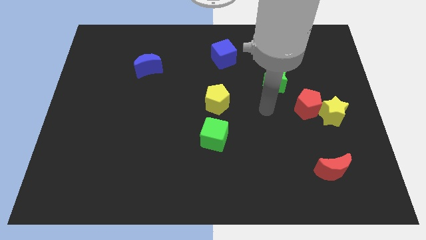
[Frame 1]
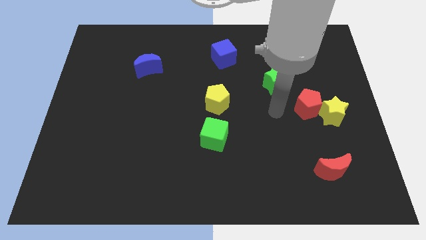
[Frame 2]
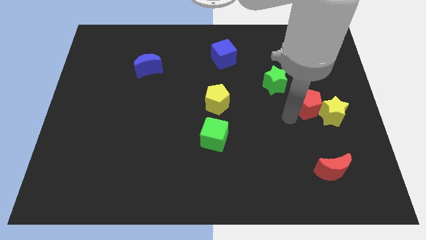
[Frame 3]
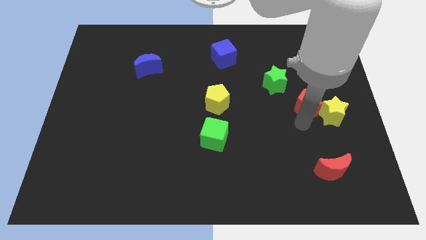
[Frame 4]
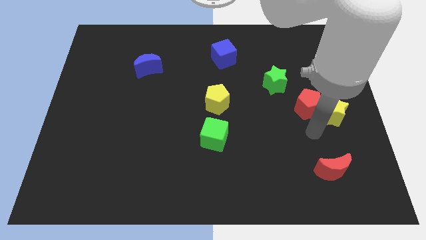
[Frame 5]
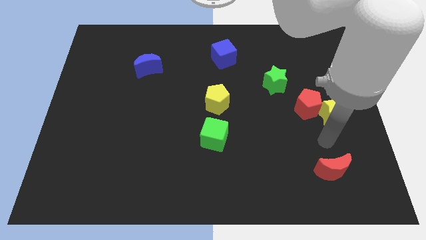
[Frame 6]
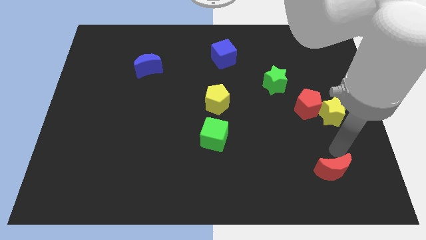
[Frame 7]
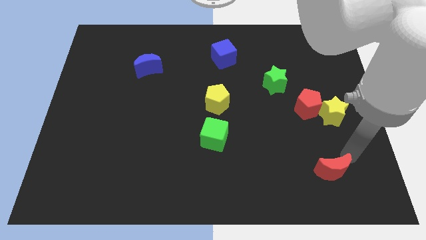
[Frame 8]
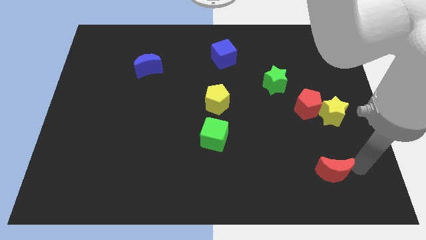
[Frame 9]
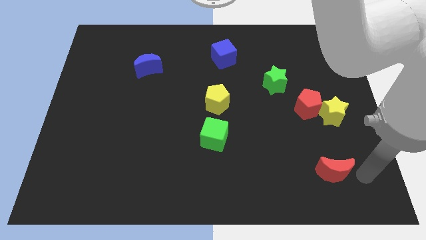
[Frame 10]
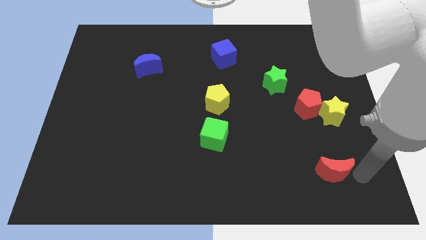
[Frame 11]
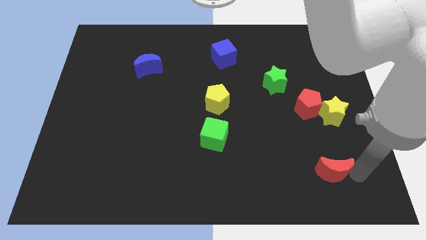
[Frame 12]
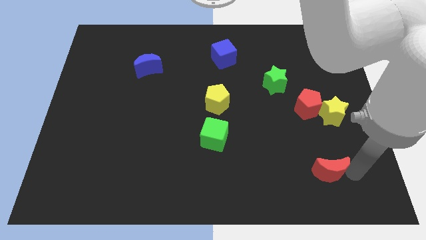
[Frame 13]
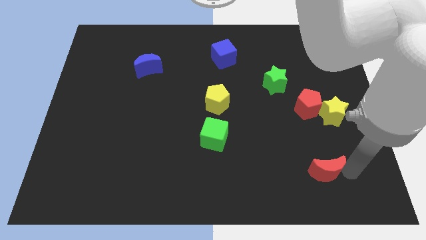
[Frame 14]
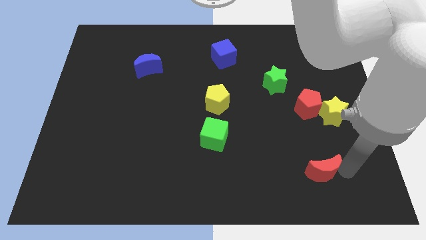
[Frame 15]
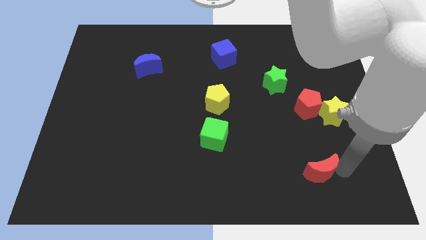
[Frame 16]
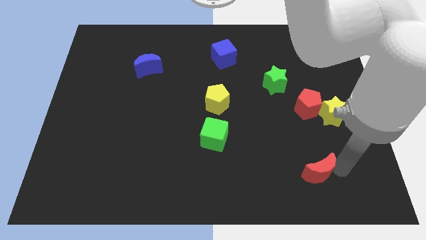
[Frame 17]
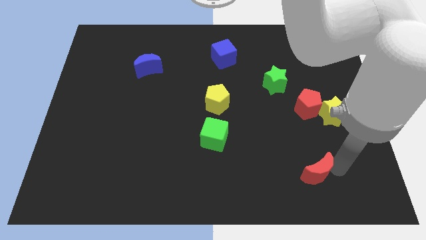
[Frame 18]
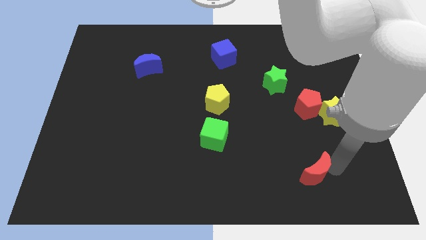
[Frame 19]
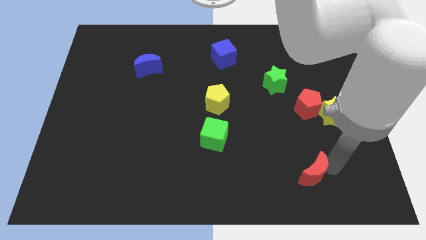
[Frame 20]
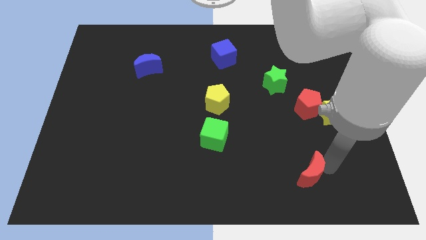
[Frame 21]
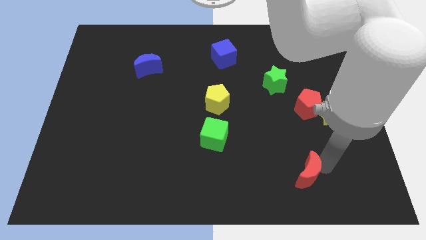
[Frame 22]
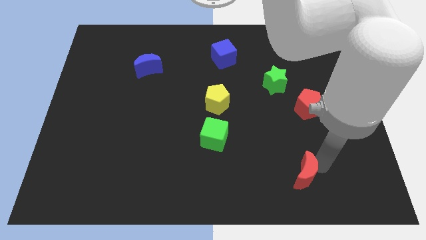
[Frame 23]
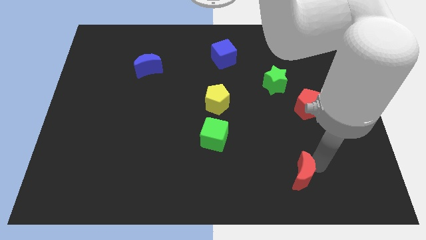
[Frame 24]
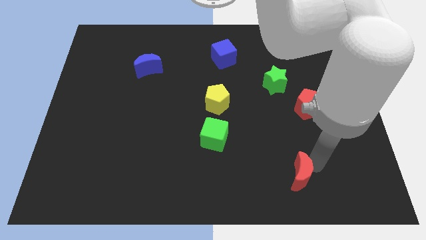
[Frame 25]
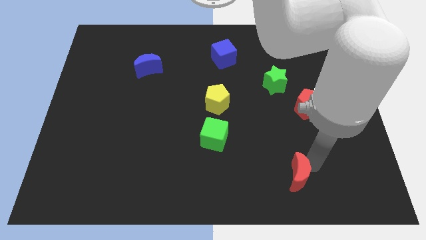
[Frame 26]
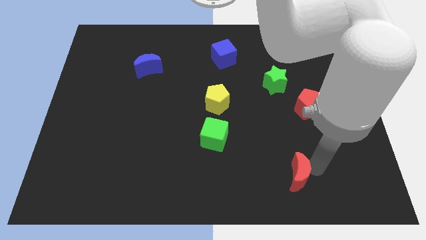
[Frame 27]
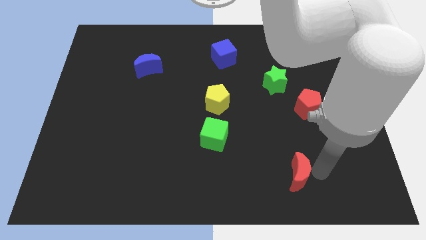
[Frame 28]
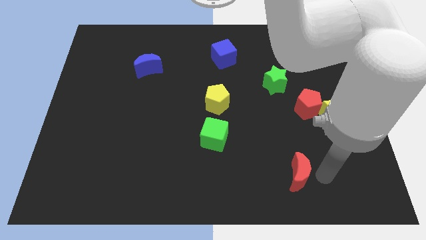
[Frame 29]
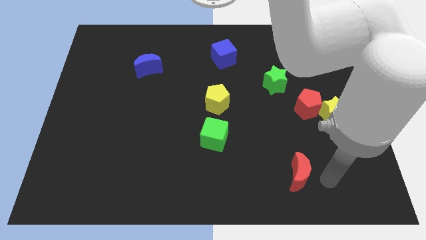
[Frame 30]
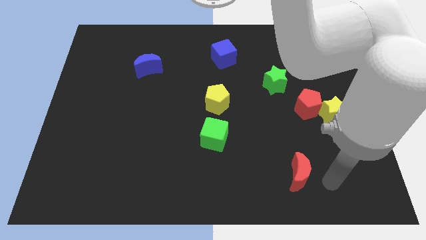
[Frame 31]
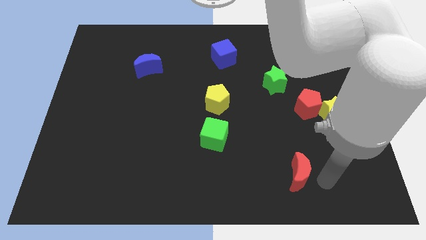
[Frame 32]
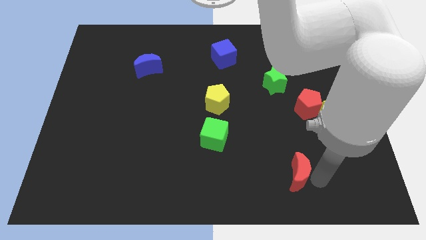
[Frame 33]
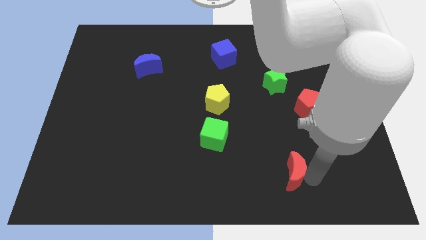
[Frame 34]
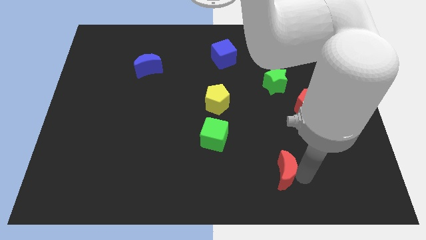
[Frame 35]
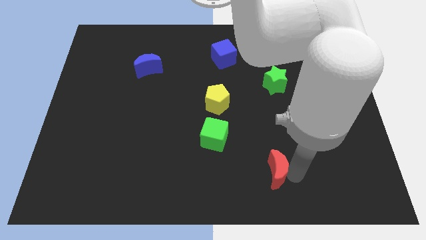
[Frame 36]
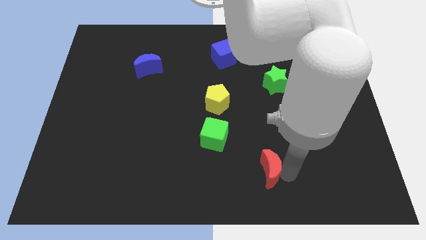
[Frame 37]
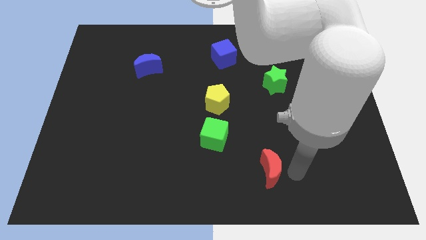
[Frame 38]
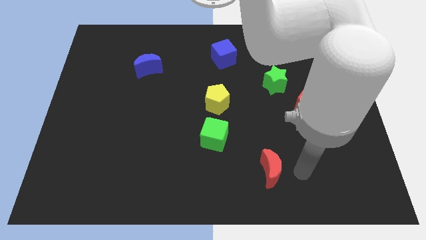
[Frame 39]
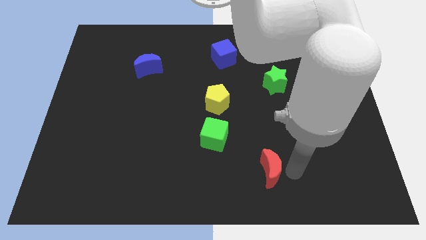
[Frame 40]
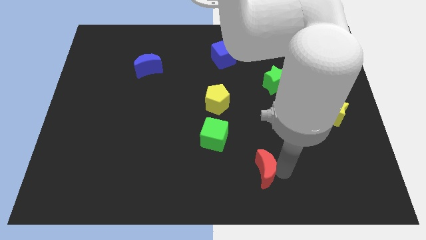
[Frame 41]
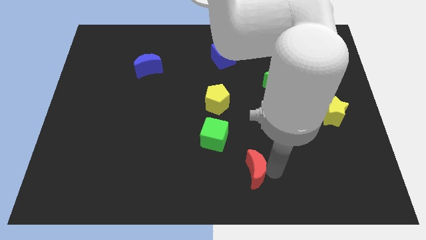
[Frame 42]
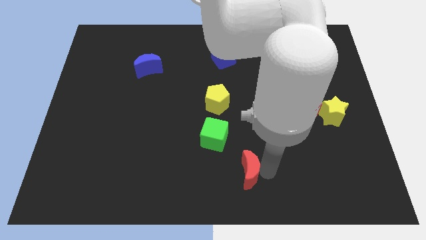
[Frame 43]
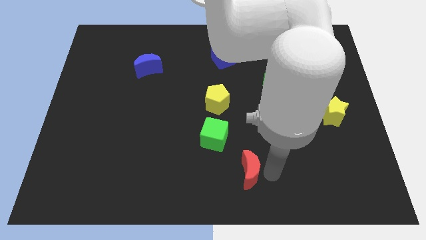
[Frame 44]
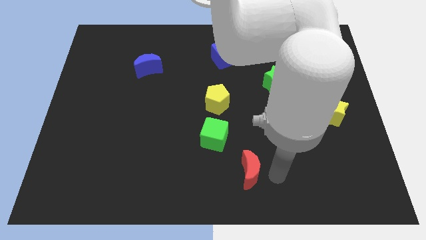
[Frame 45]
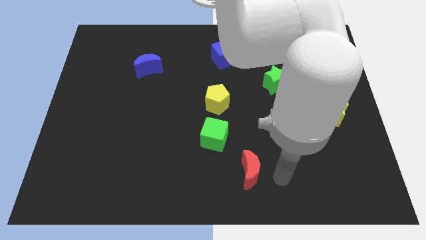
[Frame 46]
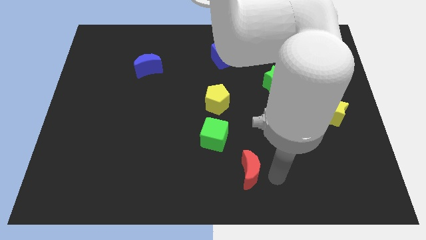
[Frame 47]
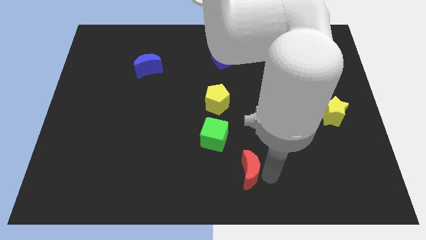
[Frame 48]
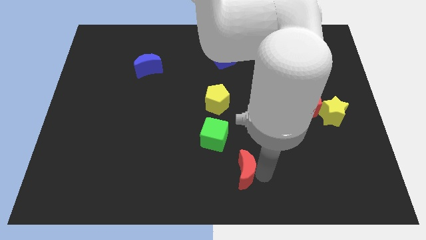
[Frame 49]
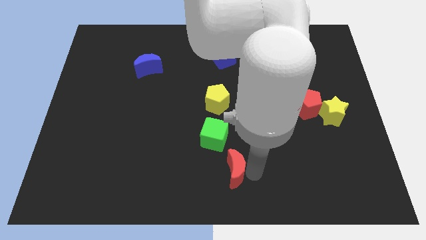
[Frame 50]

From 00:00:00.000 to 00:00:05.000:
move the red moon to the left

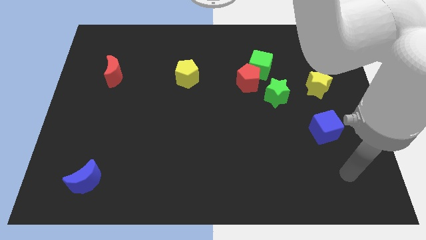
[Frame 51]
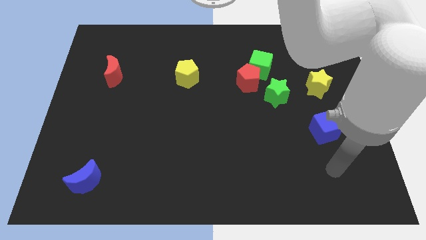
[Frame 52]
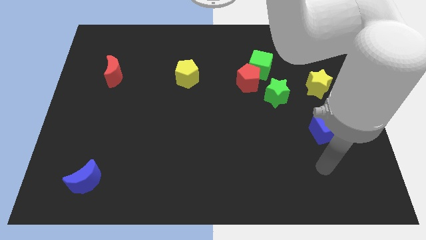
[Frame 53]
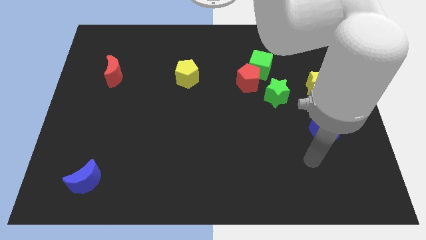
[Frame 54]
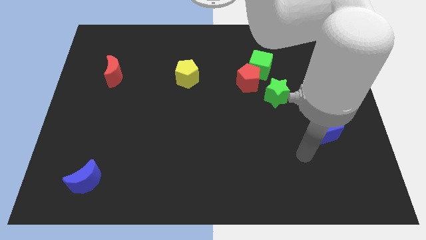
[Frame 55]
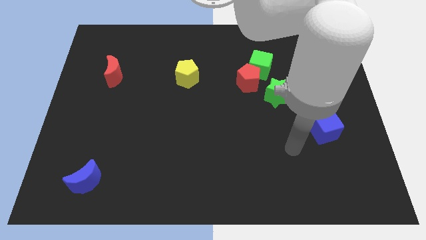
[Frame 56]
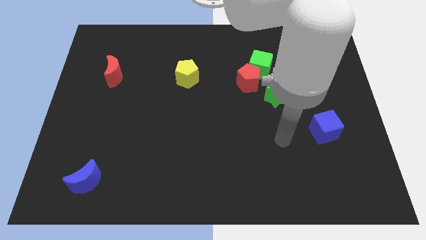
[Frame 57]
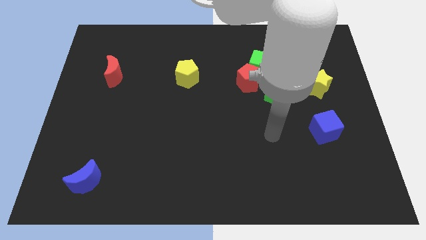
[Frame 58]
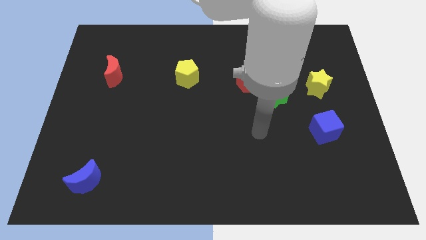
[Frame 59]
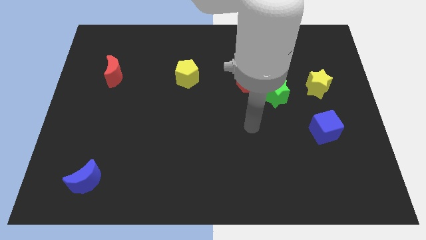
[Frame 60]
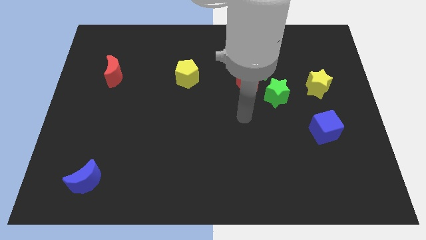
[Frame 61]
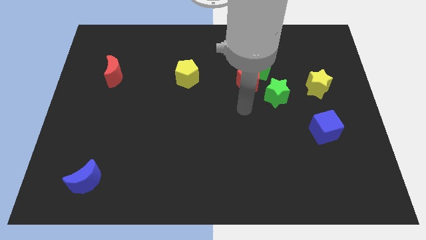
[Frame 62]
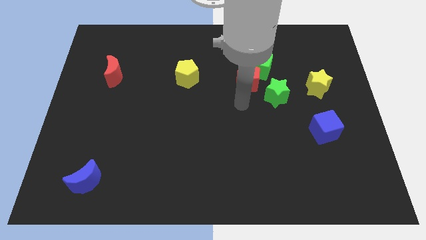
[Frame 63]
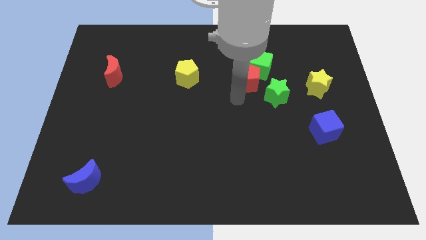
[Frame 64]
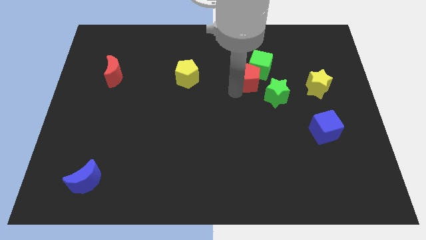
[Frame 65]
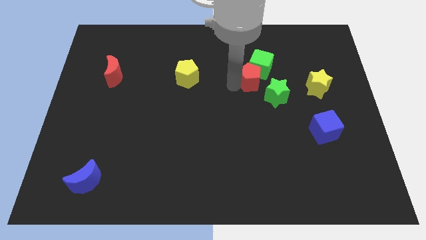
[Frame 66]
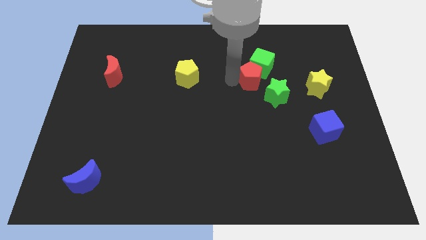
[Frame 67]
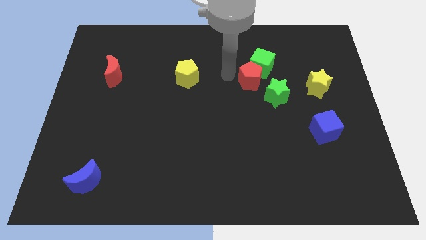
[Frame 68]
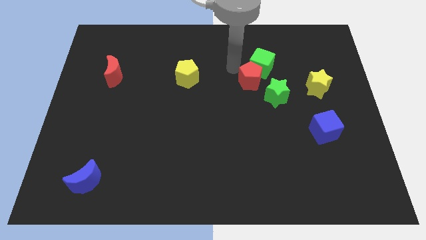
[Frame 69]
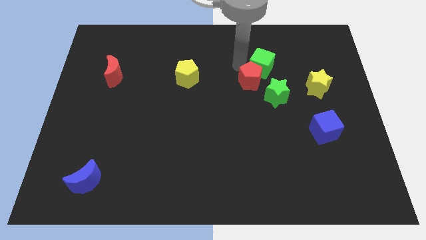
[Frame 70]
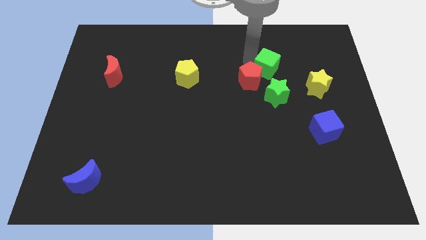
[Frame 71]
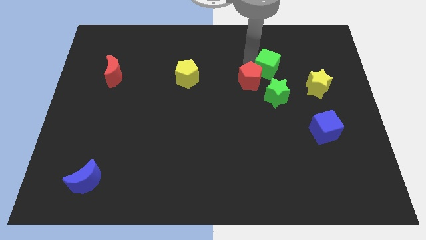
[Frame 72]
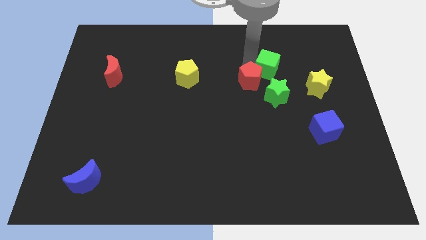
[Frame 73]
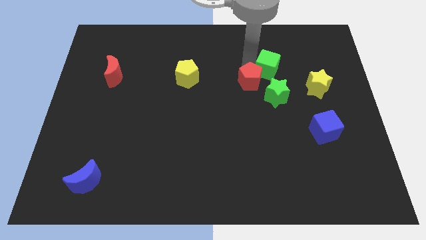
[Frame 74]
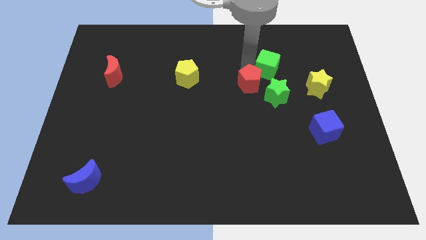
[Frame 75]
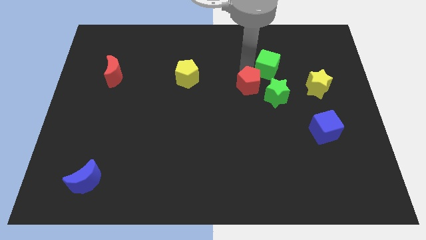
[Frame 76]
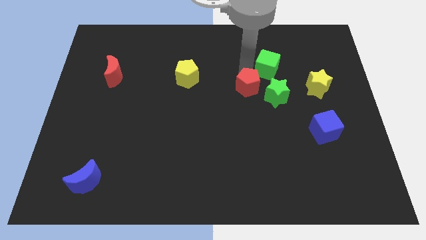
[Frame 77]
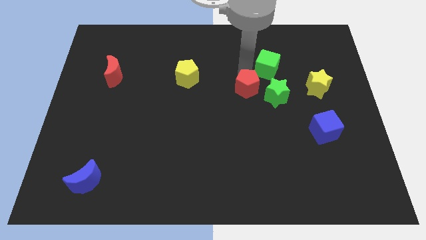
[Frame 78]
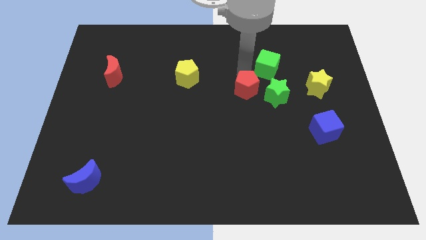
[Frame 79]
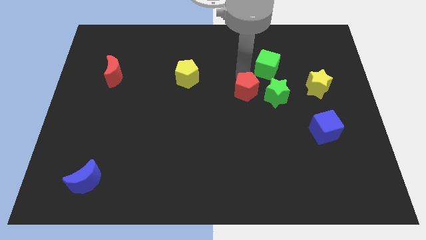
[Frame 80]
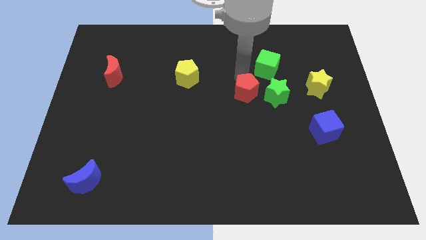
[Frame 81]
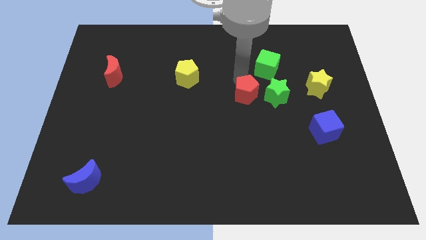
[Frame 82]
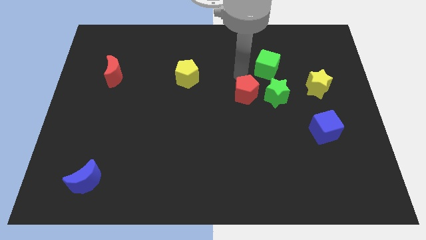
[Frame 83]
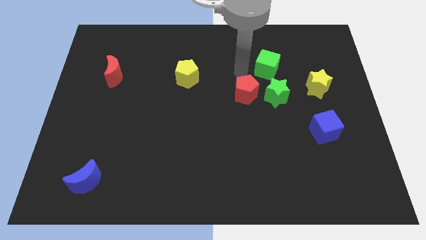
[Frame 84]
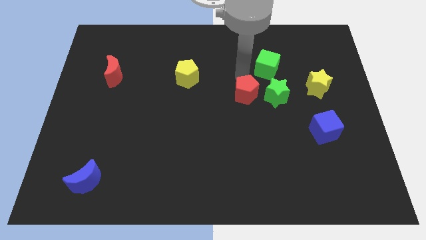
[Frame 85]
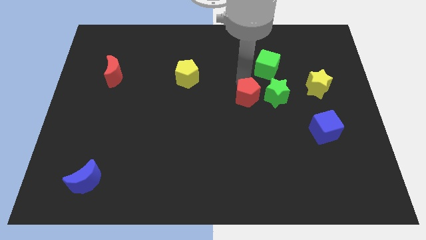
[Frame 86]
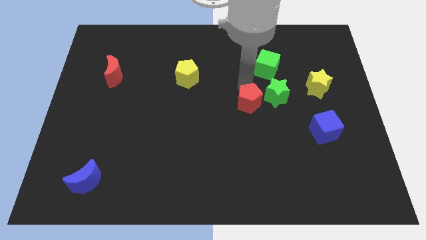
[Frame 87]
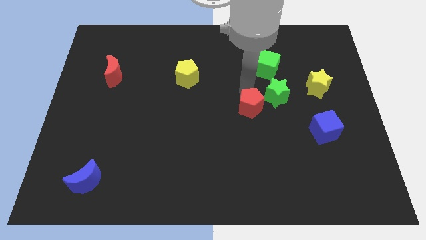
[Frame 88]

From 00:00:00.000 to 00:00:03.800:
slightly move the red pentagon down
